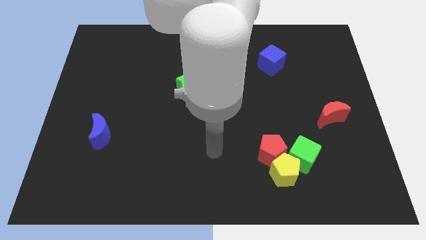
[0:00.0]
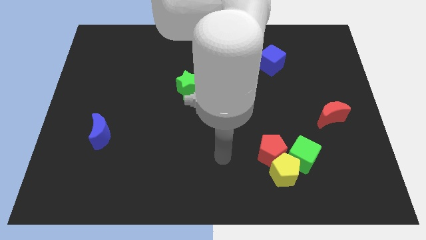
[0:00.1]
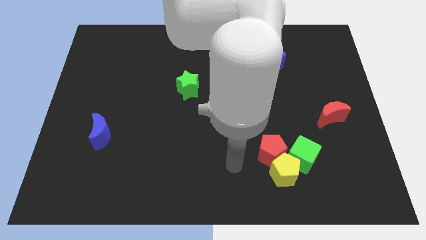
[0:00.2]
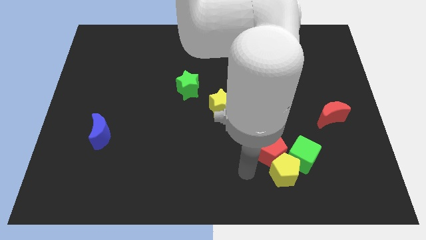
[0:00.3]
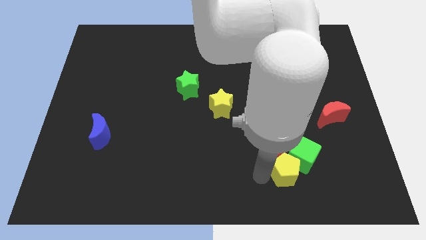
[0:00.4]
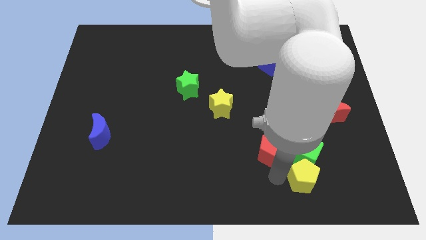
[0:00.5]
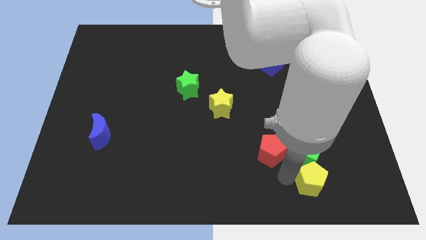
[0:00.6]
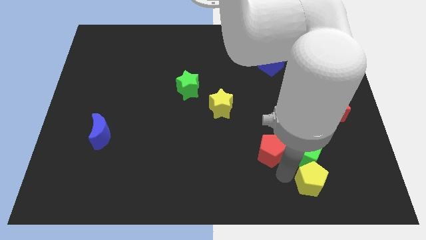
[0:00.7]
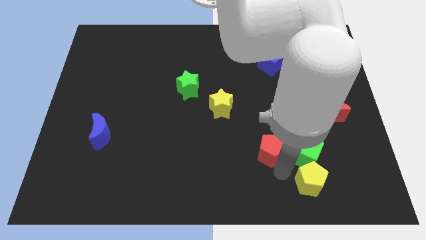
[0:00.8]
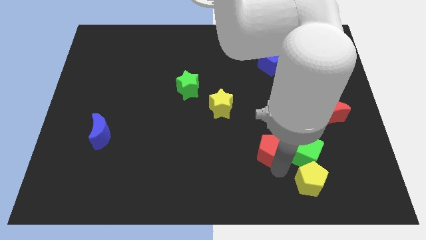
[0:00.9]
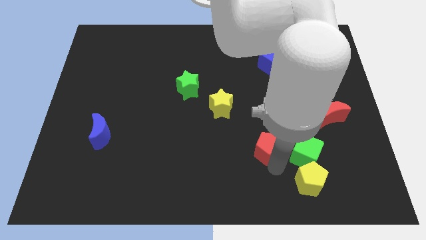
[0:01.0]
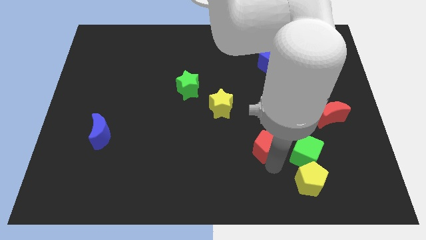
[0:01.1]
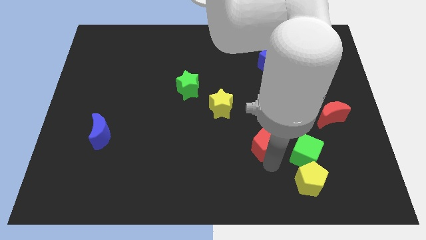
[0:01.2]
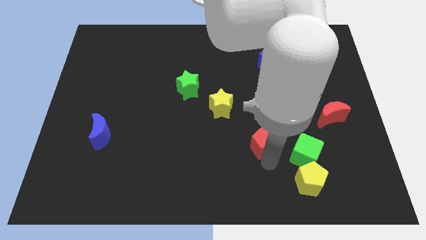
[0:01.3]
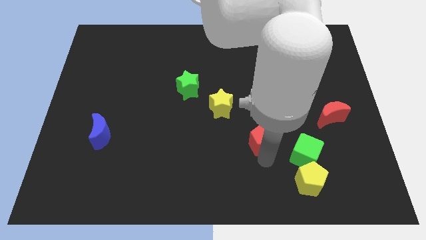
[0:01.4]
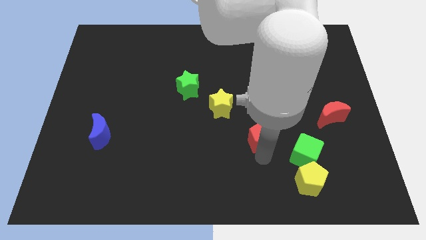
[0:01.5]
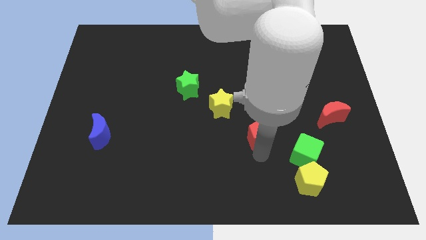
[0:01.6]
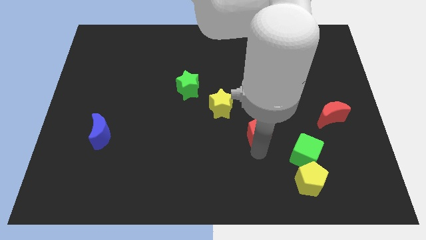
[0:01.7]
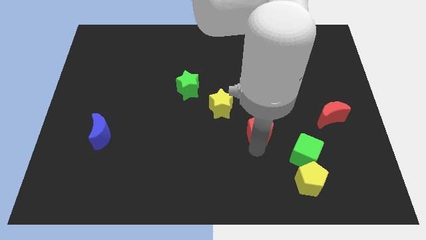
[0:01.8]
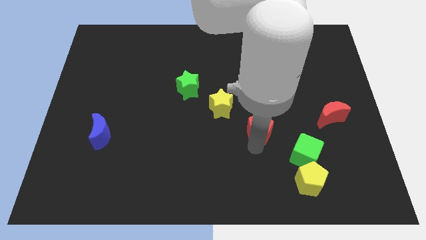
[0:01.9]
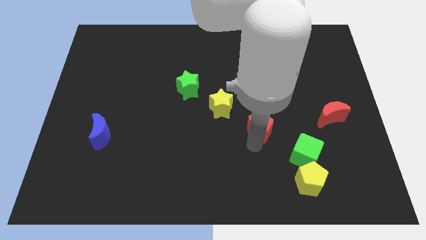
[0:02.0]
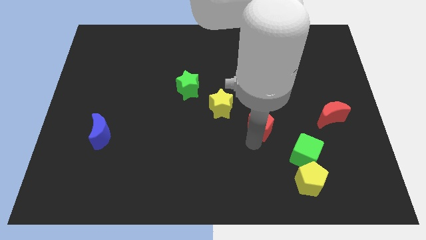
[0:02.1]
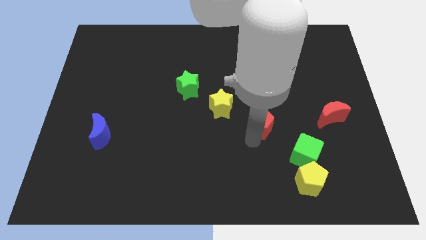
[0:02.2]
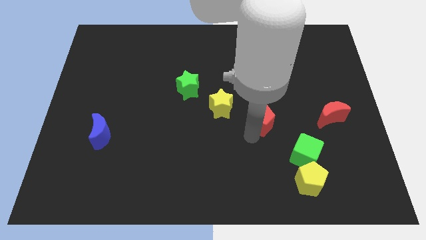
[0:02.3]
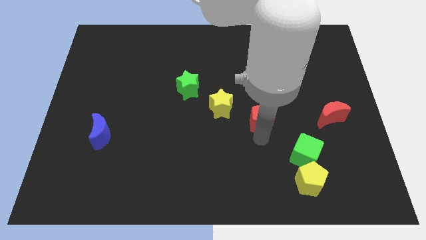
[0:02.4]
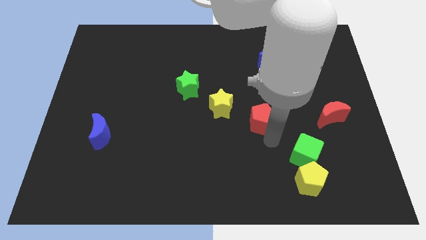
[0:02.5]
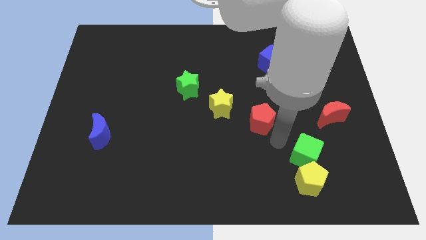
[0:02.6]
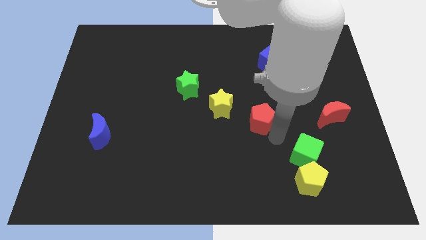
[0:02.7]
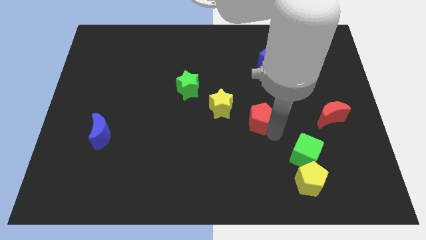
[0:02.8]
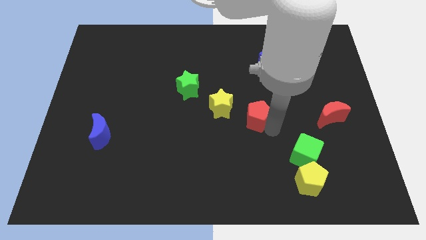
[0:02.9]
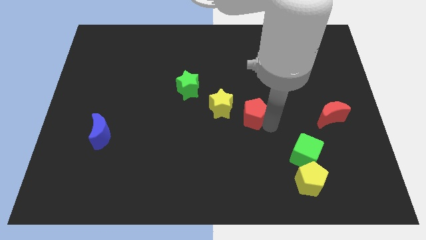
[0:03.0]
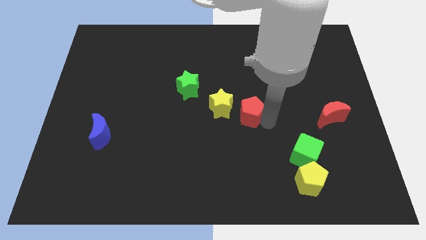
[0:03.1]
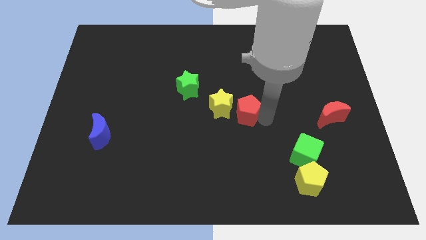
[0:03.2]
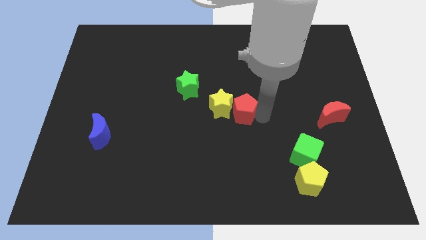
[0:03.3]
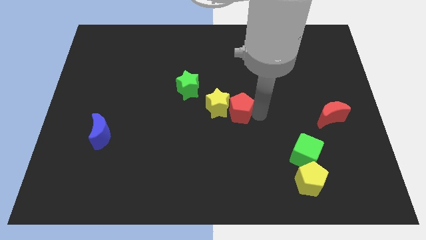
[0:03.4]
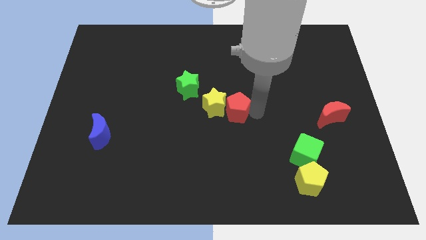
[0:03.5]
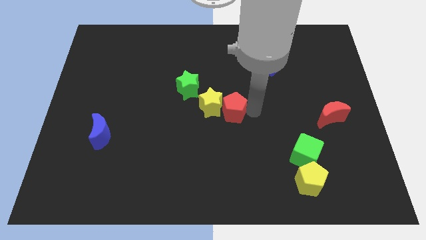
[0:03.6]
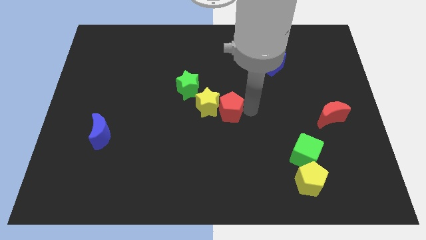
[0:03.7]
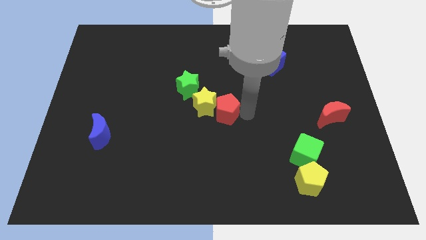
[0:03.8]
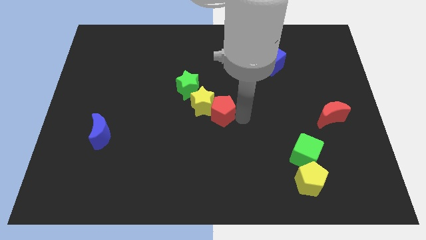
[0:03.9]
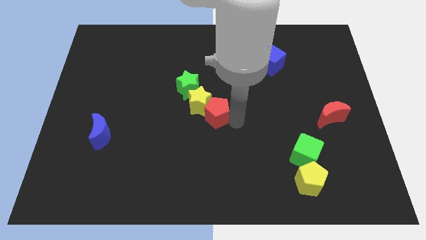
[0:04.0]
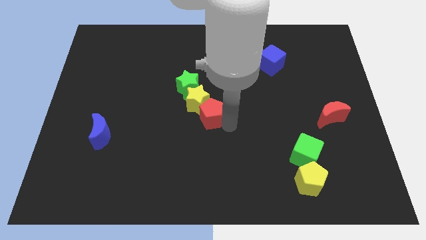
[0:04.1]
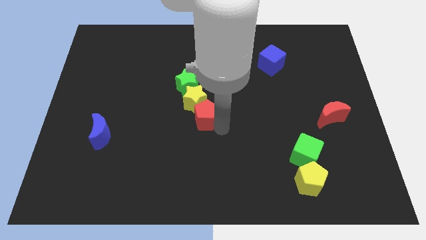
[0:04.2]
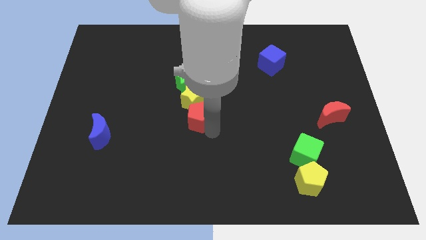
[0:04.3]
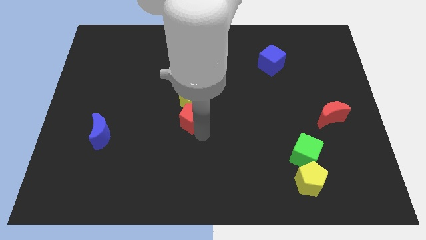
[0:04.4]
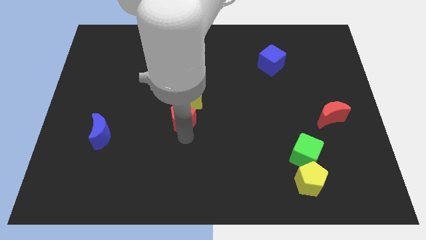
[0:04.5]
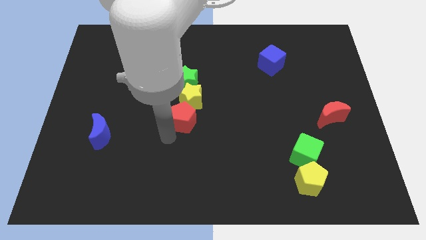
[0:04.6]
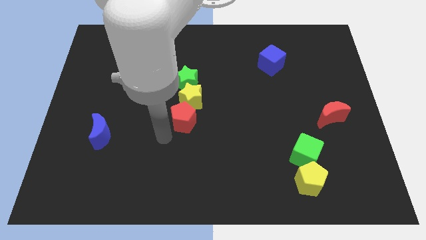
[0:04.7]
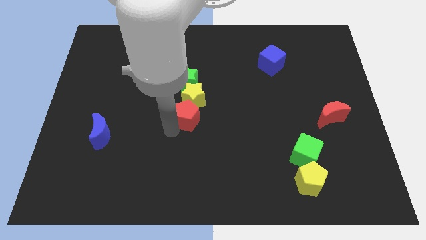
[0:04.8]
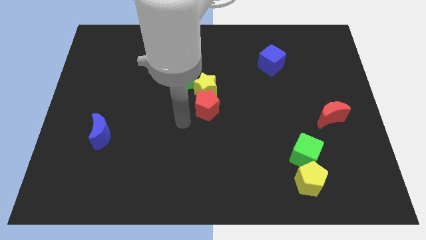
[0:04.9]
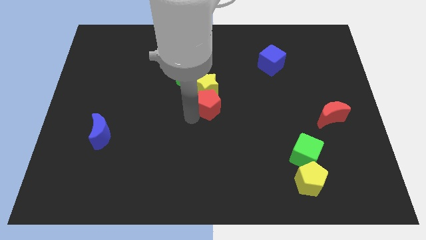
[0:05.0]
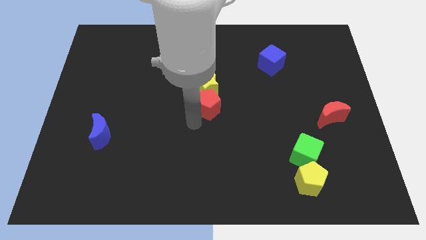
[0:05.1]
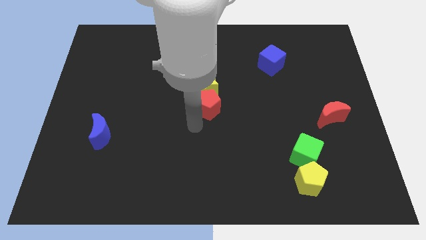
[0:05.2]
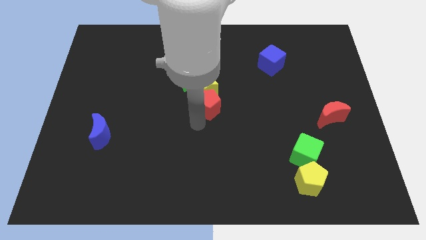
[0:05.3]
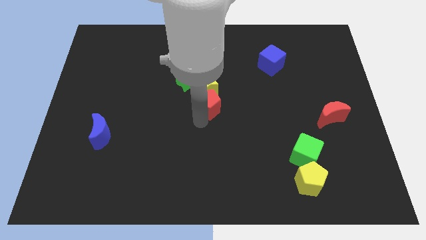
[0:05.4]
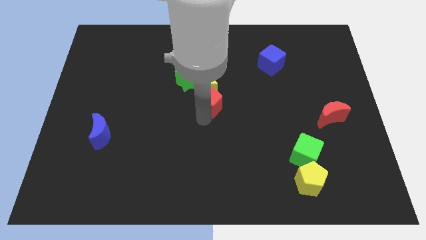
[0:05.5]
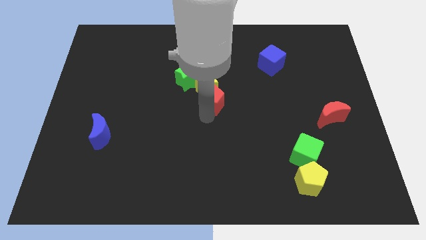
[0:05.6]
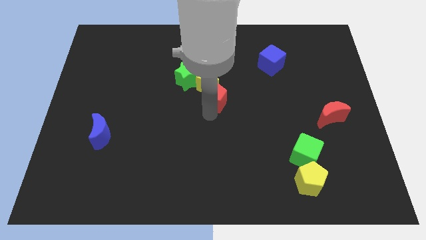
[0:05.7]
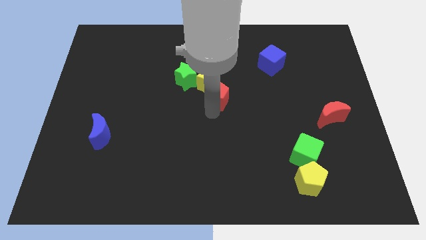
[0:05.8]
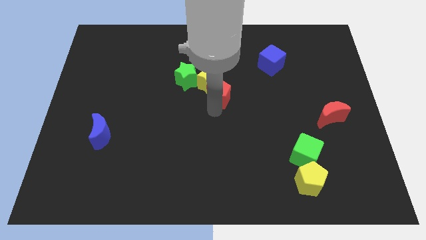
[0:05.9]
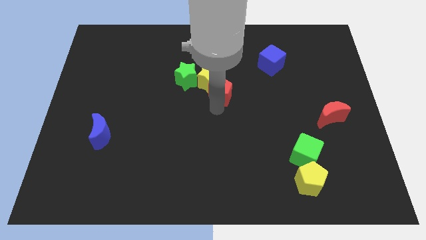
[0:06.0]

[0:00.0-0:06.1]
put the red pentagon to the right of the green star

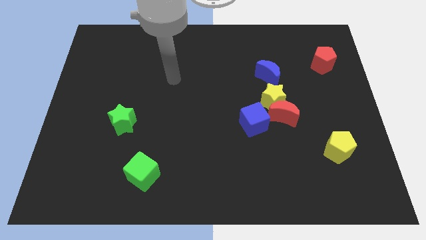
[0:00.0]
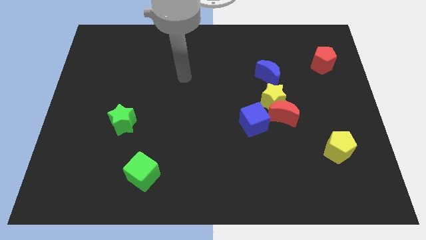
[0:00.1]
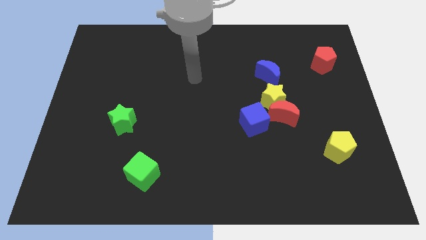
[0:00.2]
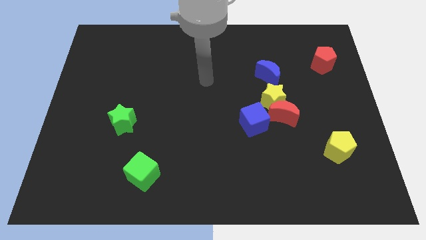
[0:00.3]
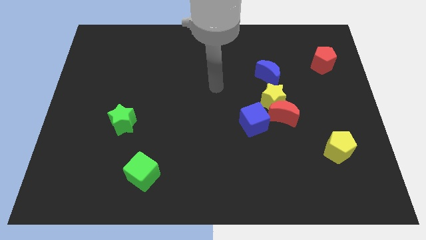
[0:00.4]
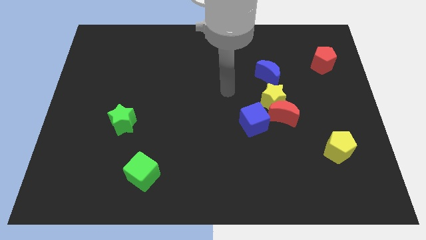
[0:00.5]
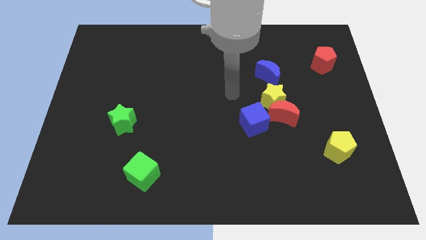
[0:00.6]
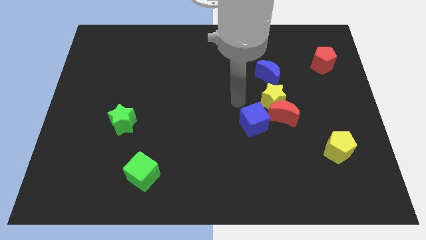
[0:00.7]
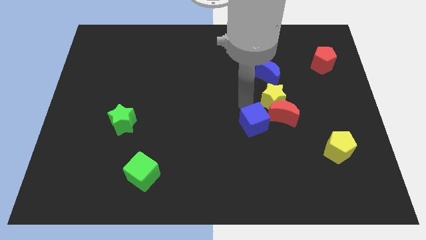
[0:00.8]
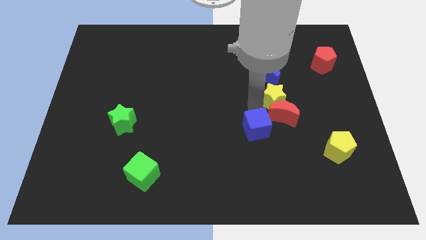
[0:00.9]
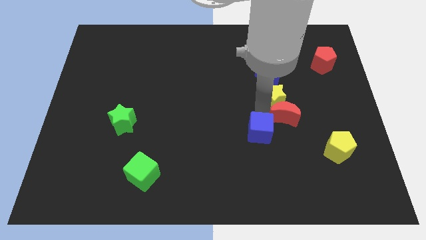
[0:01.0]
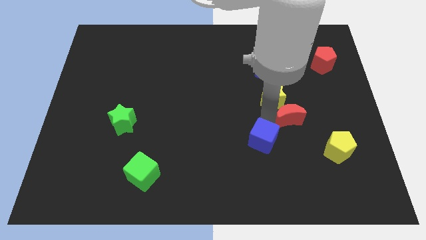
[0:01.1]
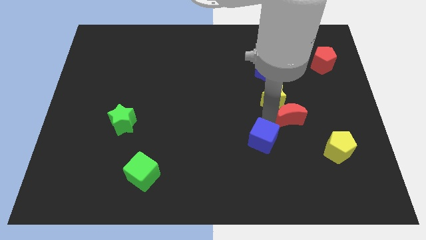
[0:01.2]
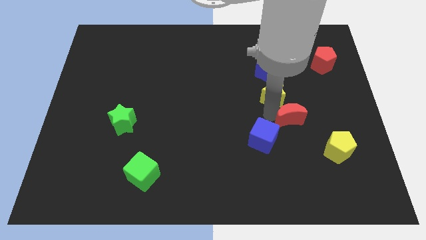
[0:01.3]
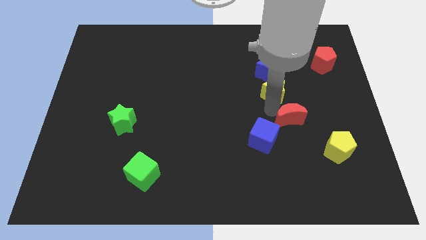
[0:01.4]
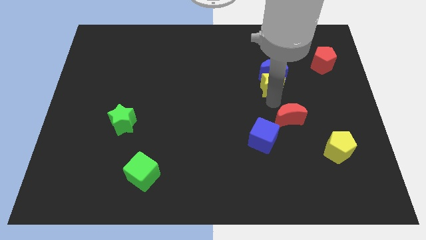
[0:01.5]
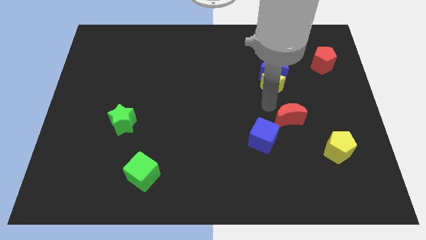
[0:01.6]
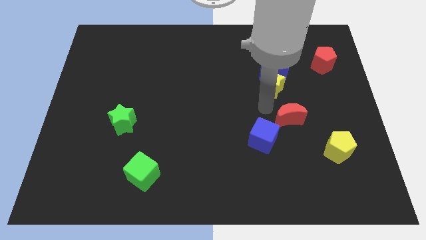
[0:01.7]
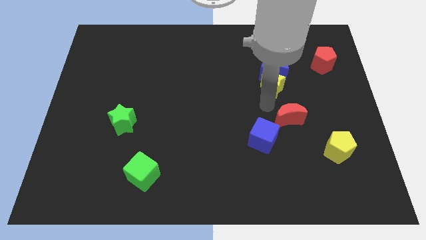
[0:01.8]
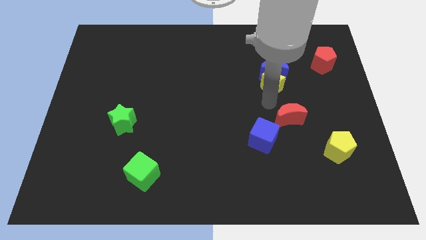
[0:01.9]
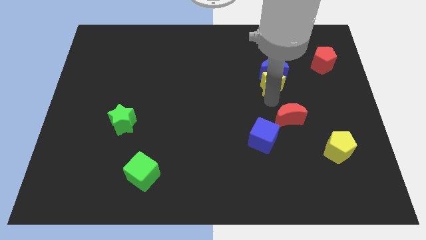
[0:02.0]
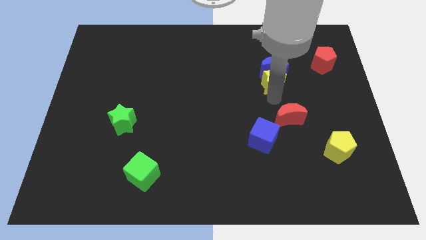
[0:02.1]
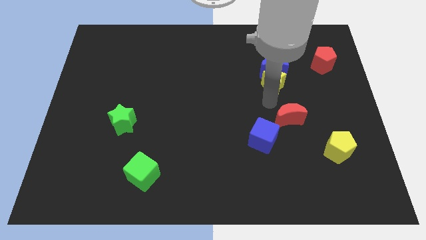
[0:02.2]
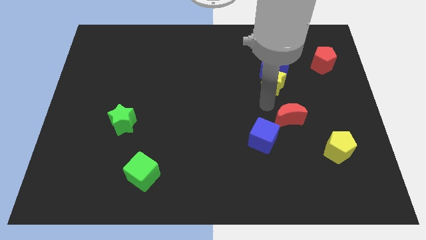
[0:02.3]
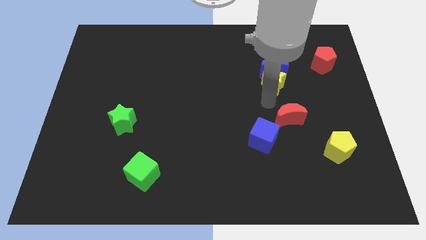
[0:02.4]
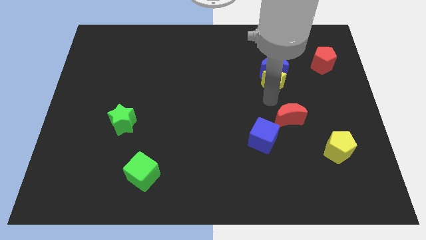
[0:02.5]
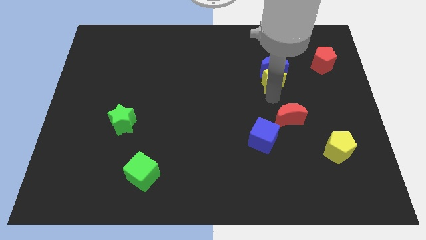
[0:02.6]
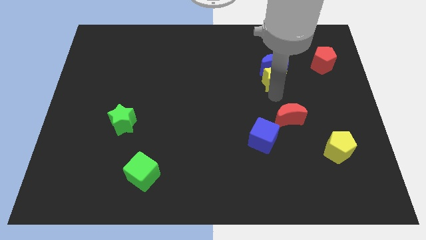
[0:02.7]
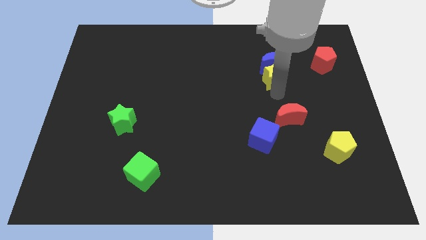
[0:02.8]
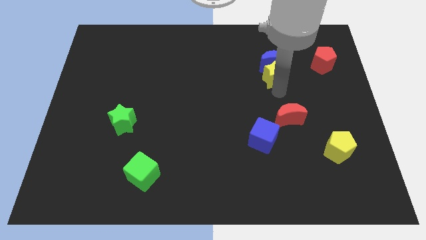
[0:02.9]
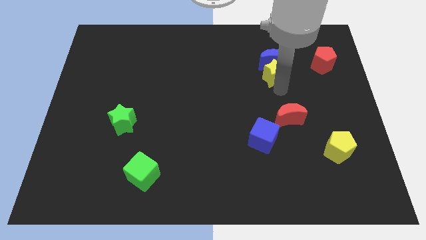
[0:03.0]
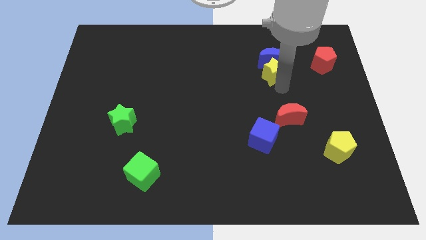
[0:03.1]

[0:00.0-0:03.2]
push the yellow star left of the red pentagon
